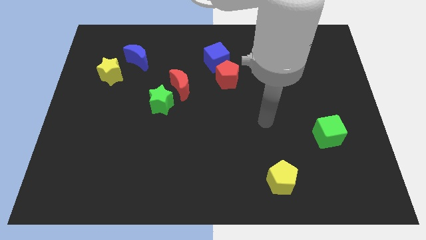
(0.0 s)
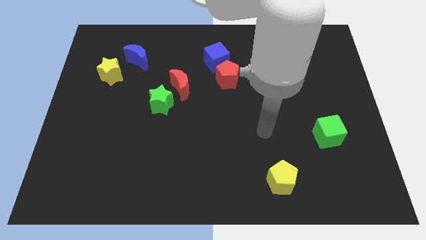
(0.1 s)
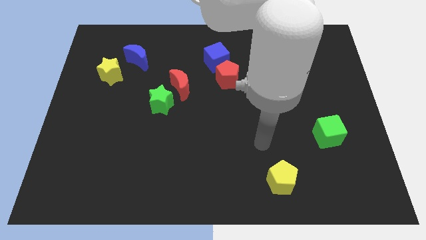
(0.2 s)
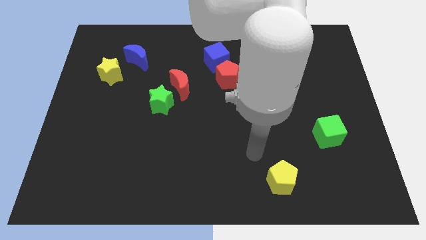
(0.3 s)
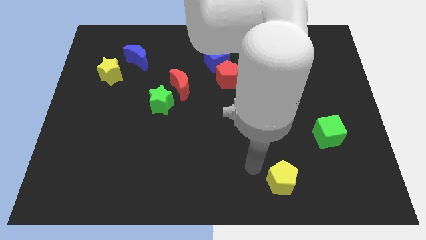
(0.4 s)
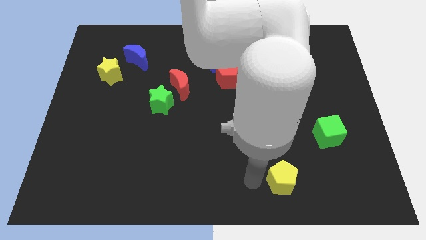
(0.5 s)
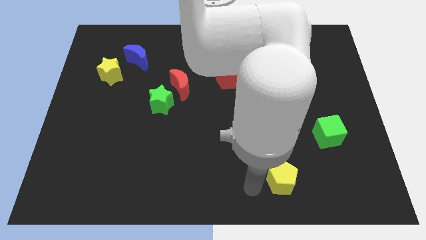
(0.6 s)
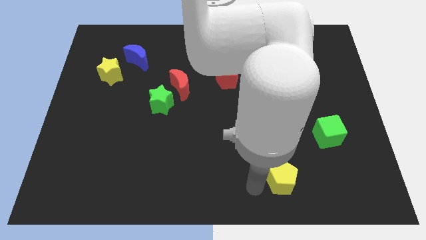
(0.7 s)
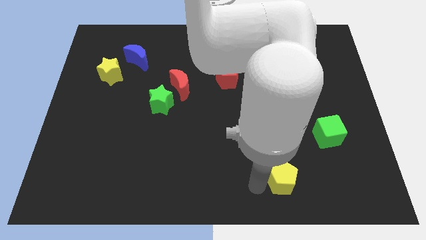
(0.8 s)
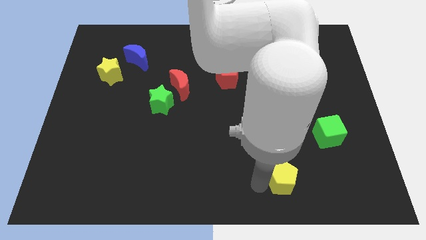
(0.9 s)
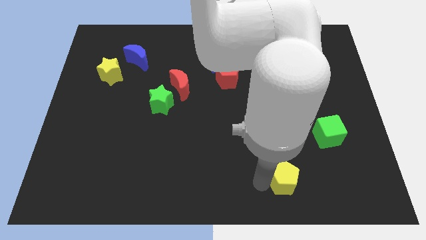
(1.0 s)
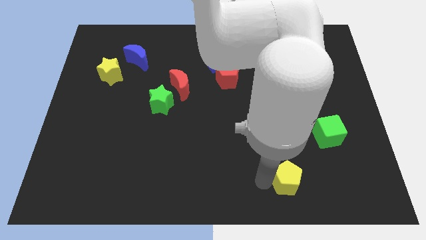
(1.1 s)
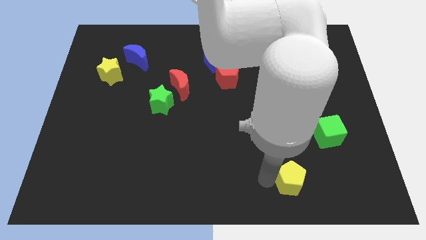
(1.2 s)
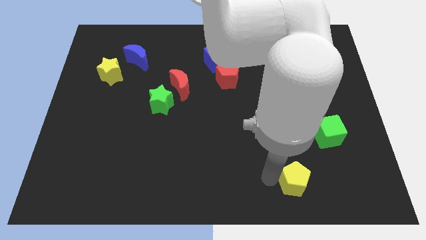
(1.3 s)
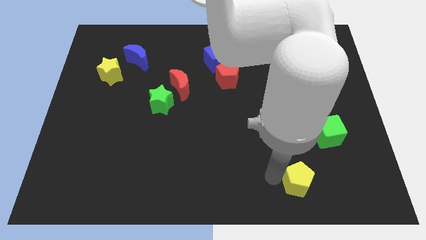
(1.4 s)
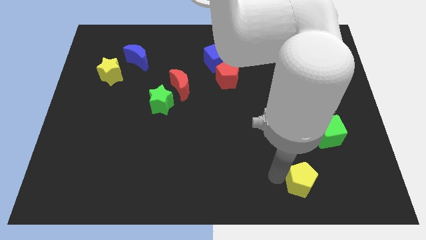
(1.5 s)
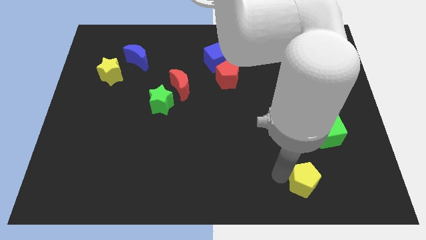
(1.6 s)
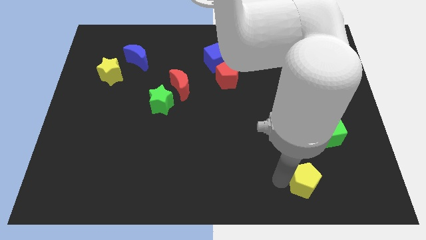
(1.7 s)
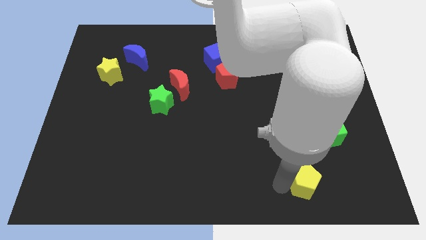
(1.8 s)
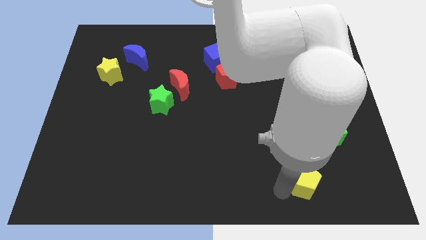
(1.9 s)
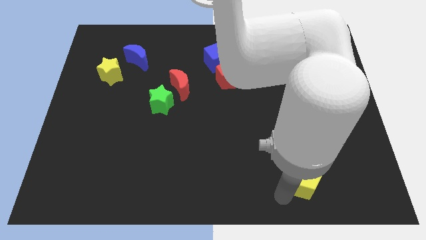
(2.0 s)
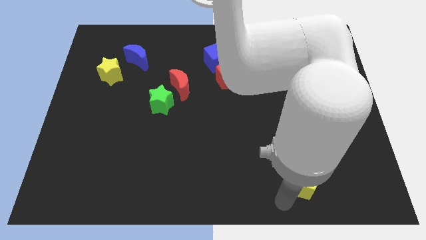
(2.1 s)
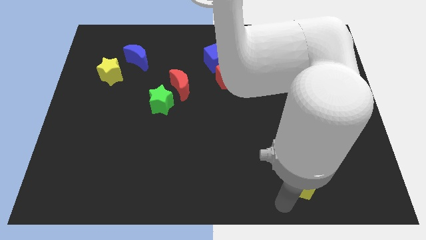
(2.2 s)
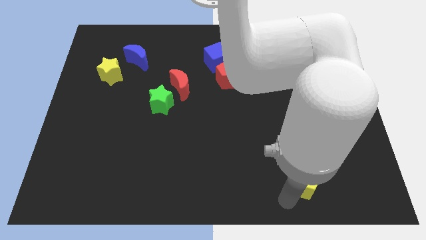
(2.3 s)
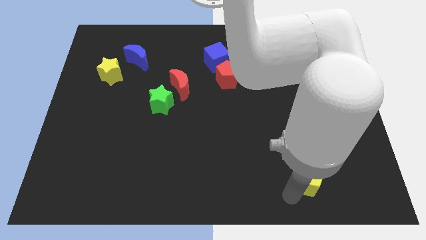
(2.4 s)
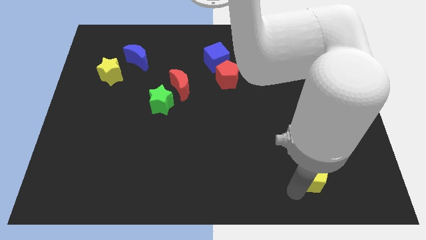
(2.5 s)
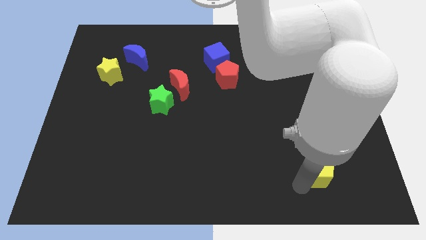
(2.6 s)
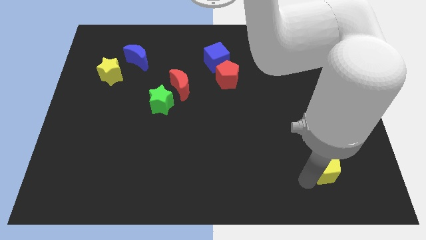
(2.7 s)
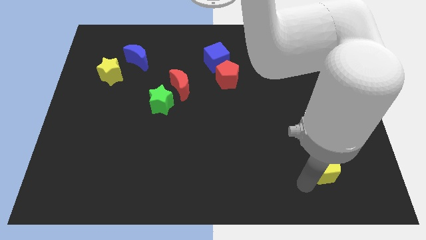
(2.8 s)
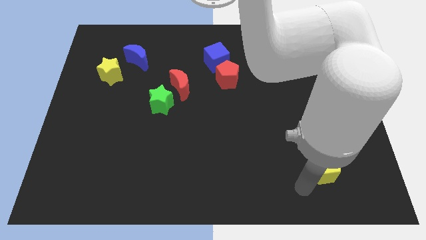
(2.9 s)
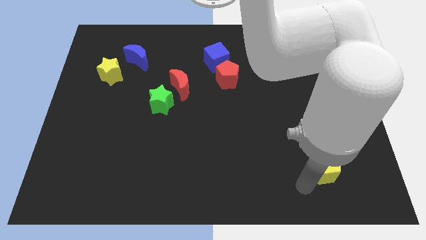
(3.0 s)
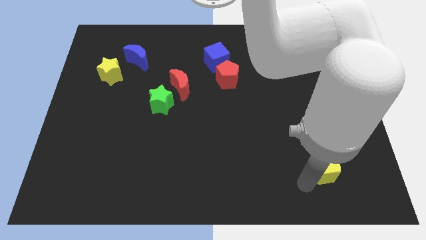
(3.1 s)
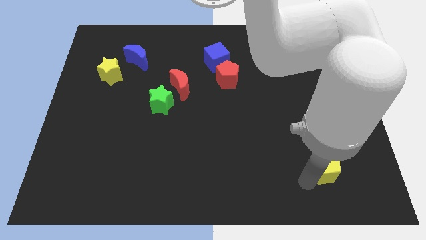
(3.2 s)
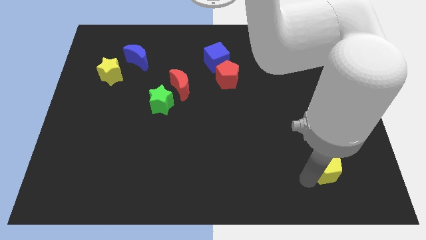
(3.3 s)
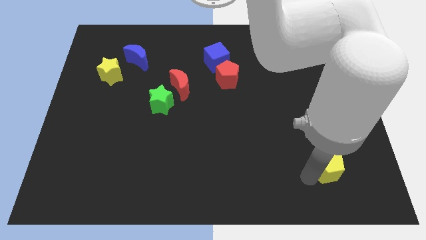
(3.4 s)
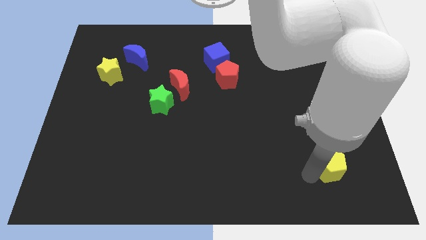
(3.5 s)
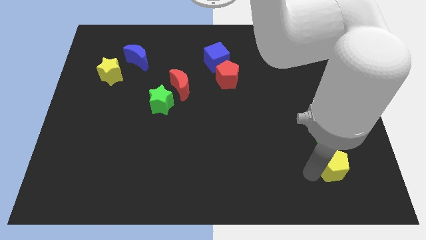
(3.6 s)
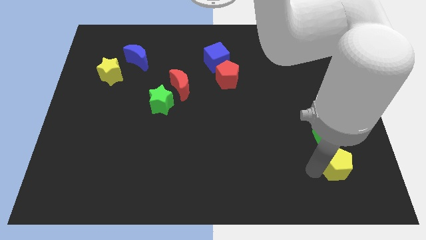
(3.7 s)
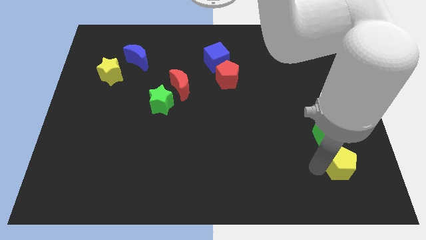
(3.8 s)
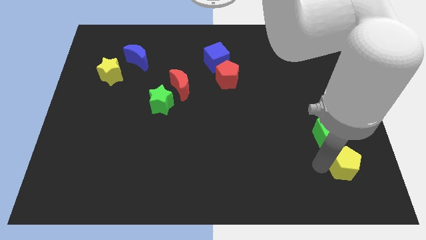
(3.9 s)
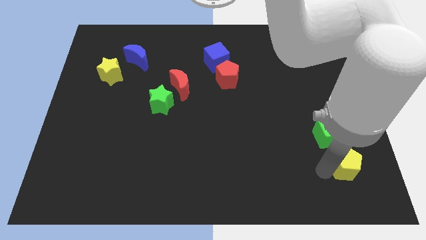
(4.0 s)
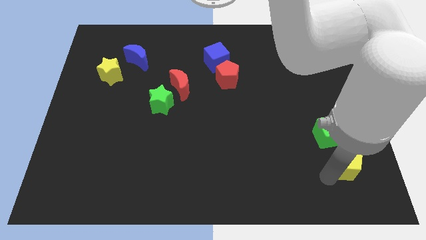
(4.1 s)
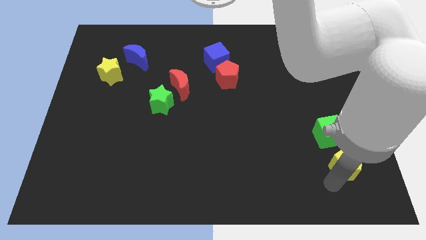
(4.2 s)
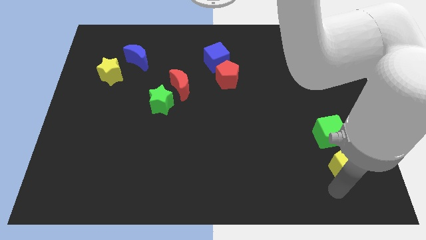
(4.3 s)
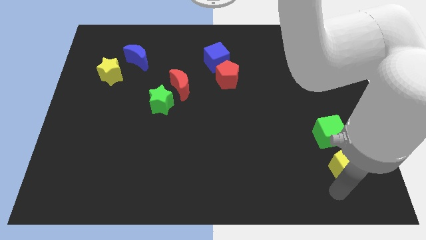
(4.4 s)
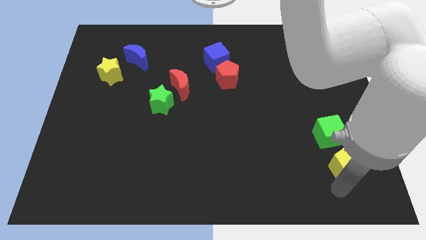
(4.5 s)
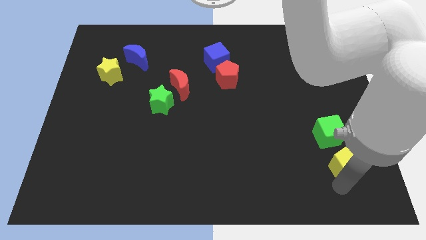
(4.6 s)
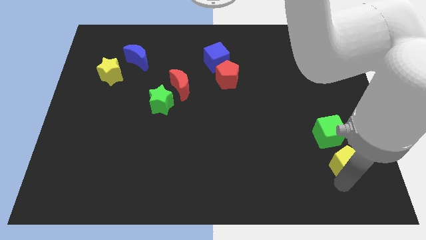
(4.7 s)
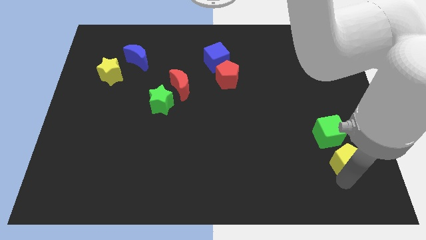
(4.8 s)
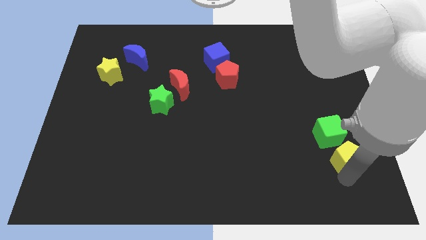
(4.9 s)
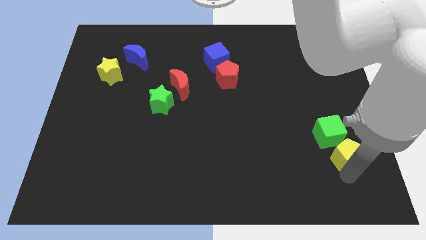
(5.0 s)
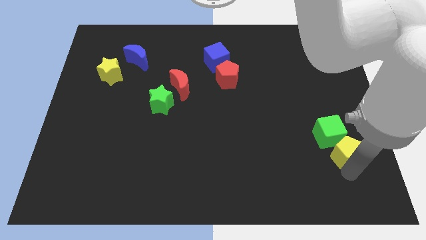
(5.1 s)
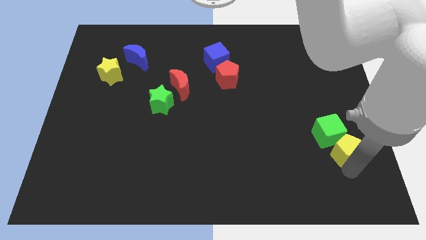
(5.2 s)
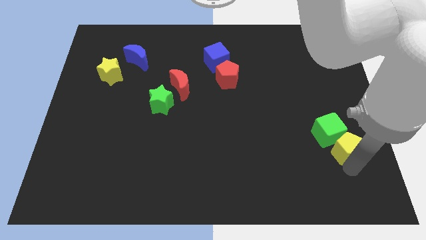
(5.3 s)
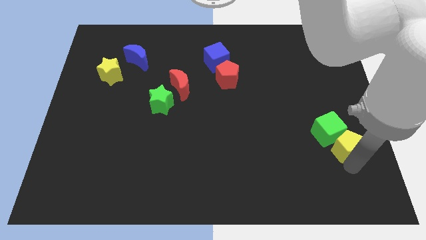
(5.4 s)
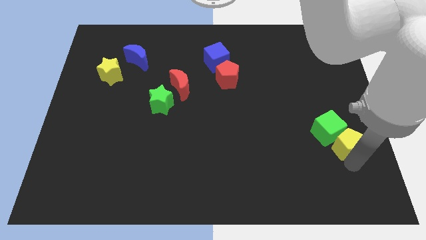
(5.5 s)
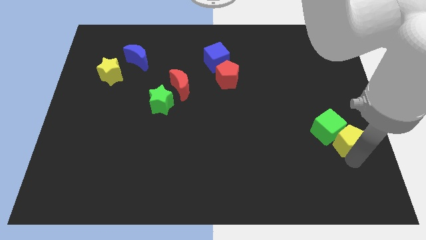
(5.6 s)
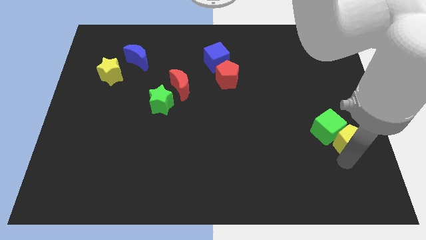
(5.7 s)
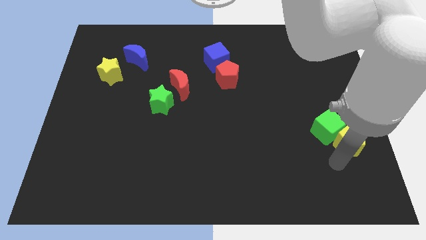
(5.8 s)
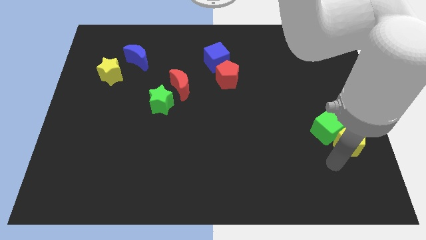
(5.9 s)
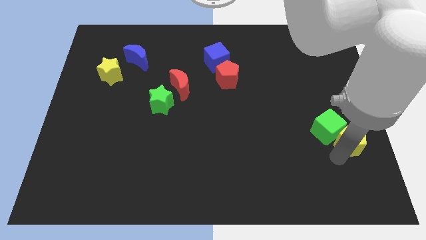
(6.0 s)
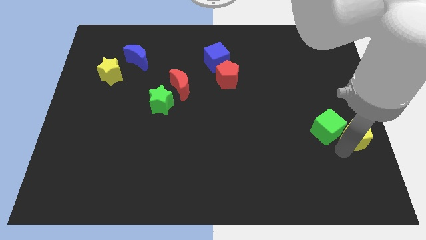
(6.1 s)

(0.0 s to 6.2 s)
slide the yellow pentagon to the right side of the board
